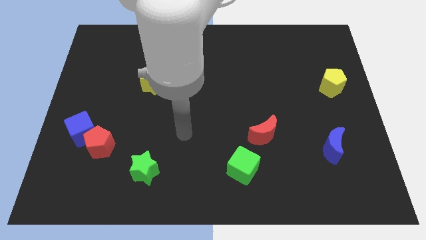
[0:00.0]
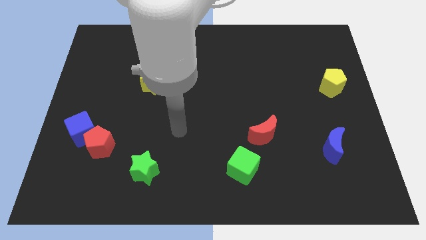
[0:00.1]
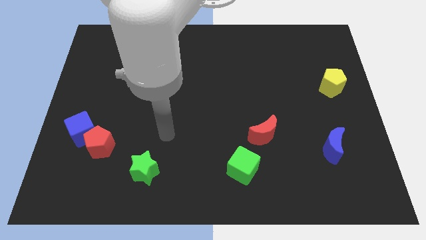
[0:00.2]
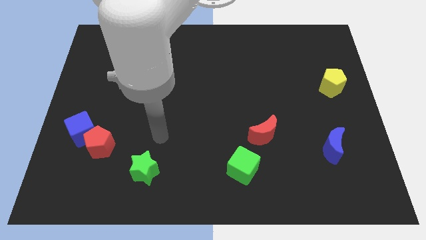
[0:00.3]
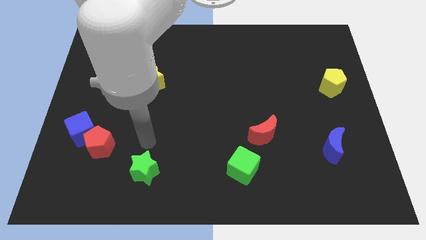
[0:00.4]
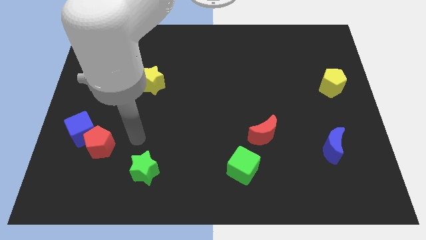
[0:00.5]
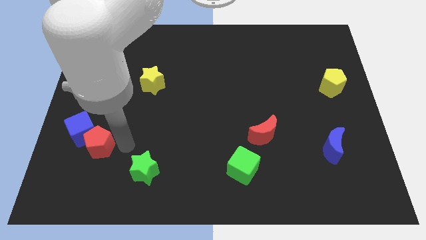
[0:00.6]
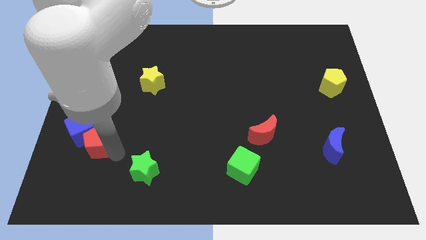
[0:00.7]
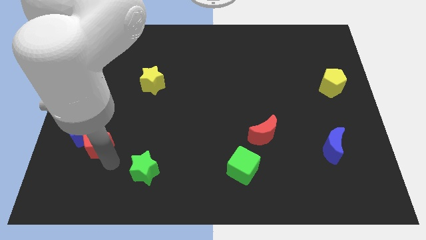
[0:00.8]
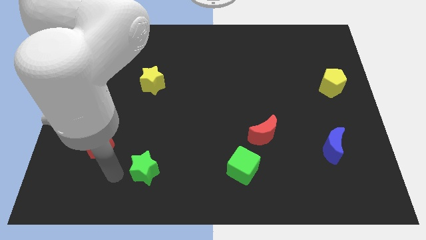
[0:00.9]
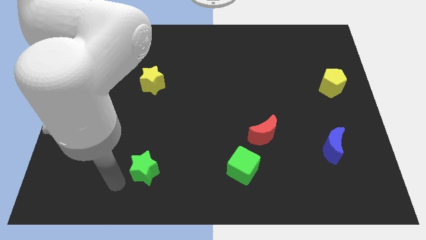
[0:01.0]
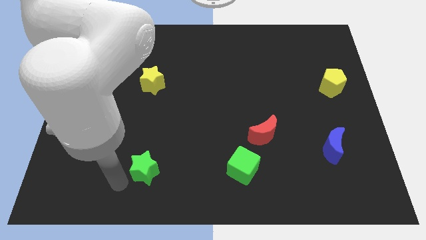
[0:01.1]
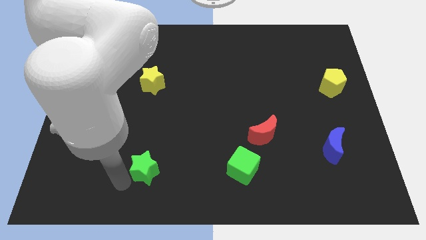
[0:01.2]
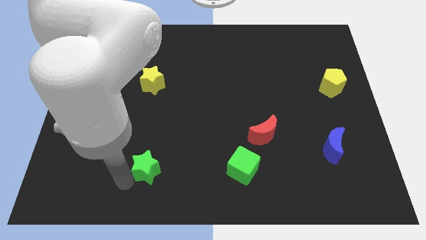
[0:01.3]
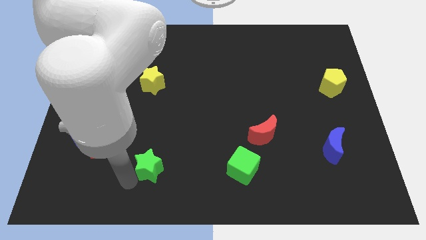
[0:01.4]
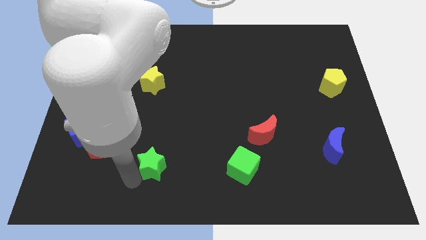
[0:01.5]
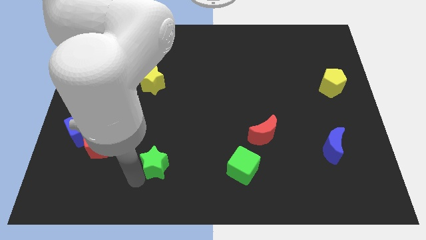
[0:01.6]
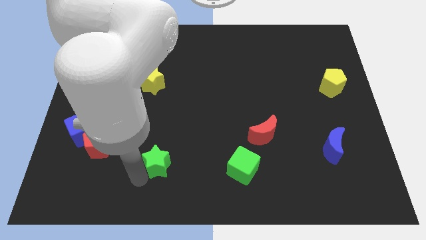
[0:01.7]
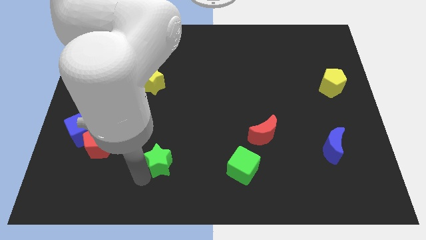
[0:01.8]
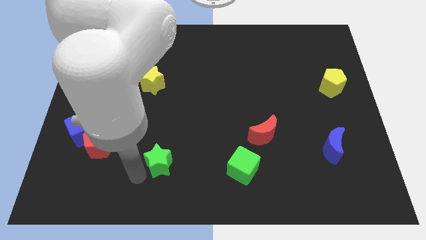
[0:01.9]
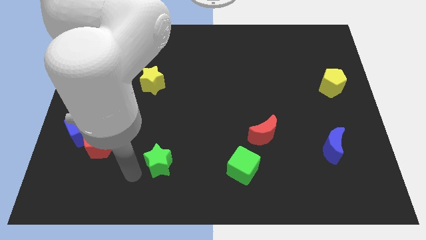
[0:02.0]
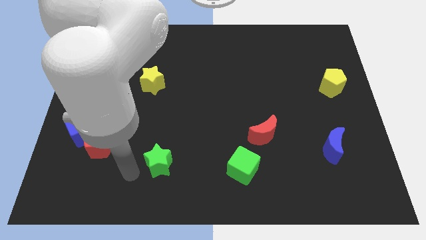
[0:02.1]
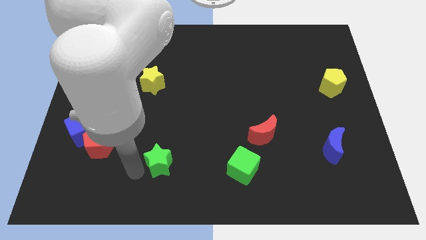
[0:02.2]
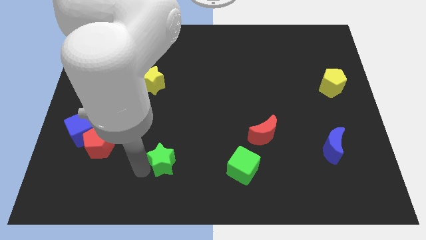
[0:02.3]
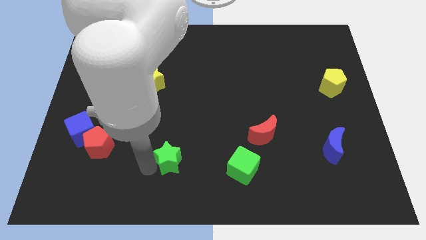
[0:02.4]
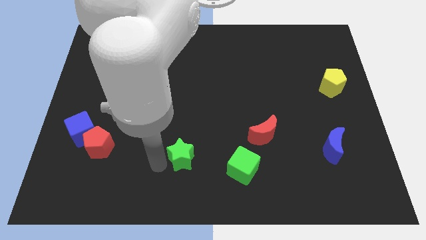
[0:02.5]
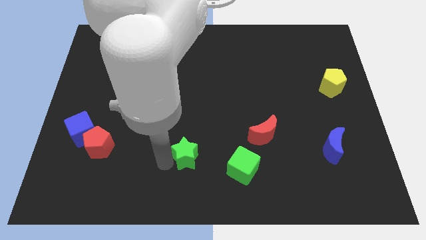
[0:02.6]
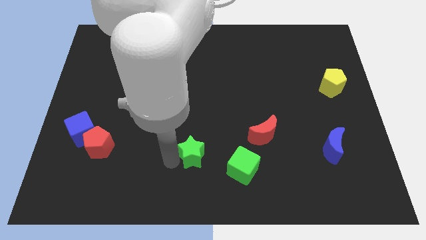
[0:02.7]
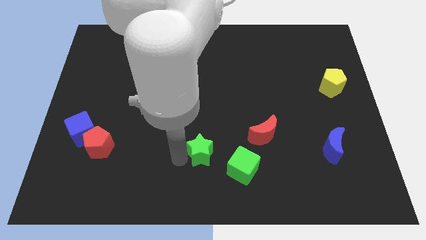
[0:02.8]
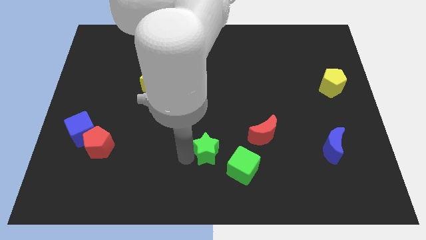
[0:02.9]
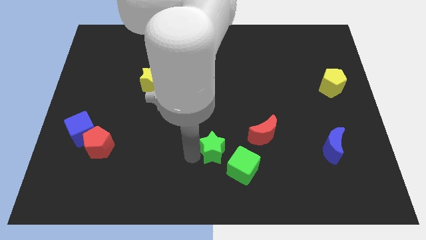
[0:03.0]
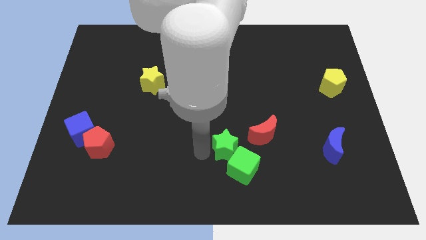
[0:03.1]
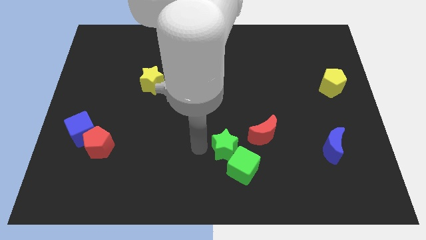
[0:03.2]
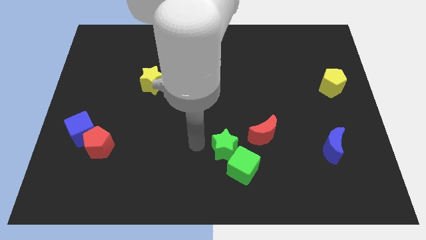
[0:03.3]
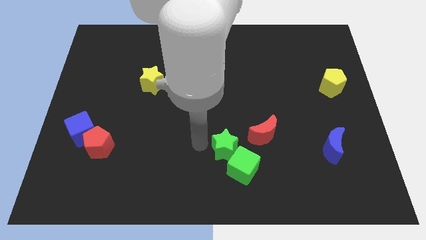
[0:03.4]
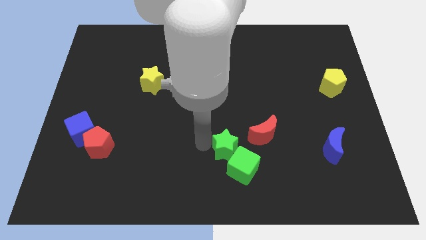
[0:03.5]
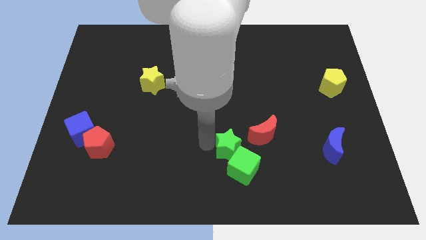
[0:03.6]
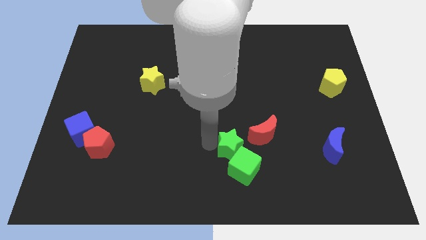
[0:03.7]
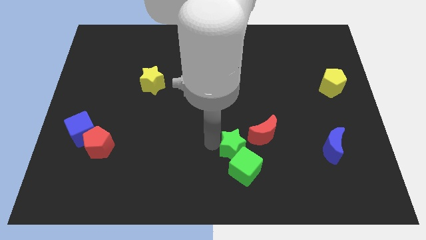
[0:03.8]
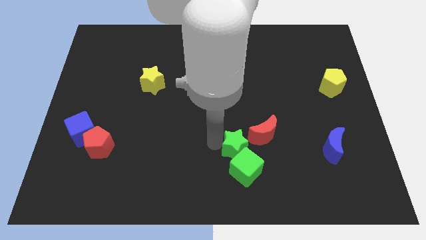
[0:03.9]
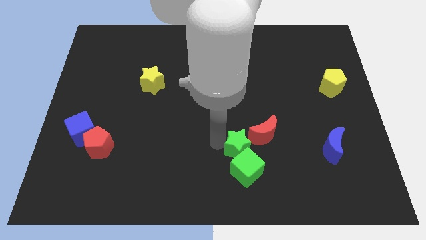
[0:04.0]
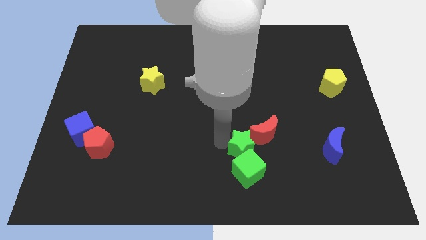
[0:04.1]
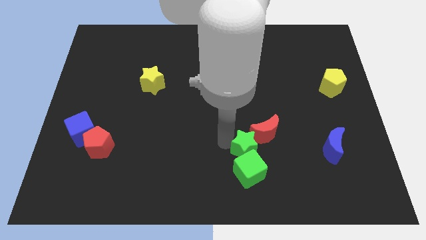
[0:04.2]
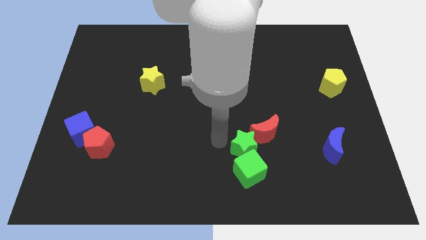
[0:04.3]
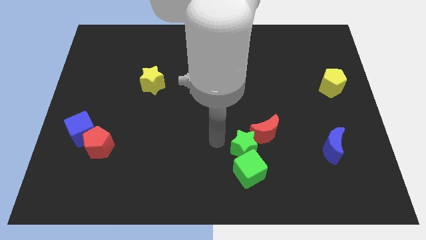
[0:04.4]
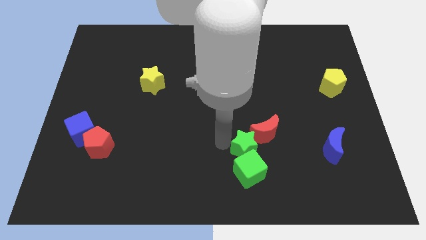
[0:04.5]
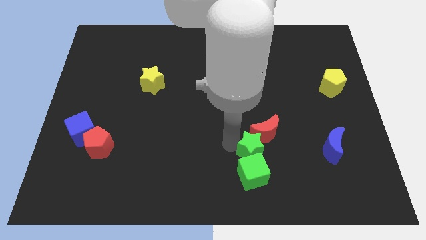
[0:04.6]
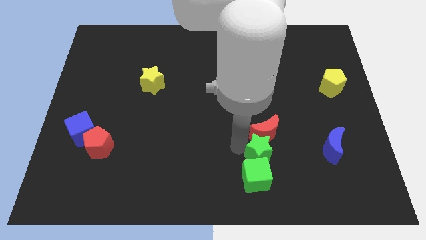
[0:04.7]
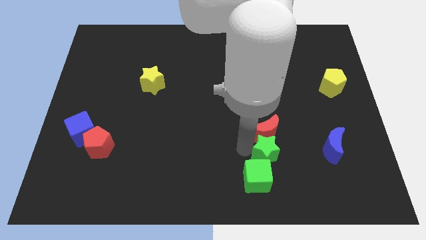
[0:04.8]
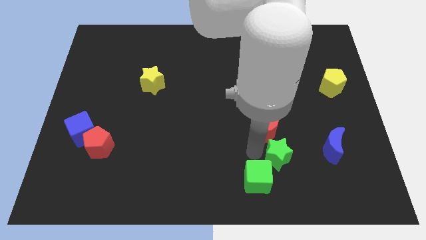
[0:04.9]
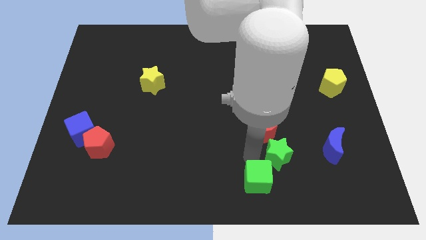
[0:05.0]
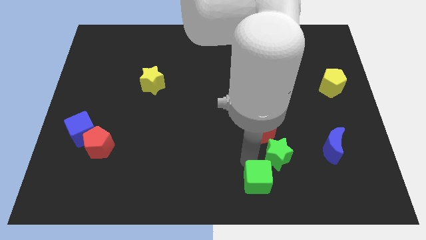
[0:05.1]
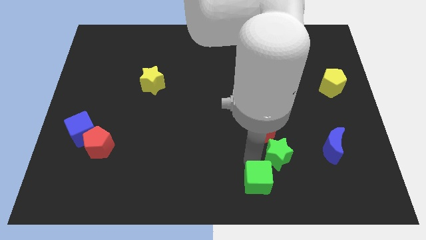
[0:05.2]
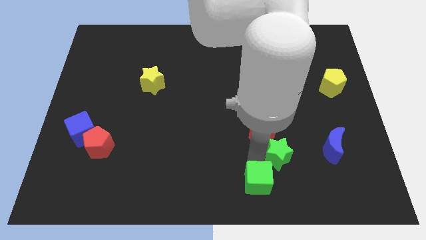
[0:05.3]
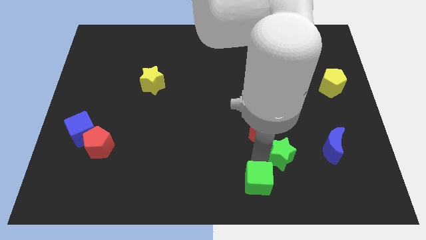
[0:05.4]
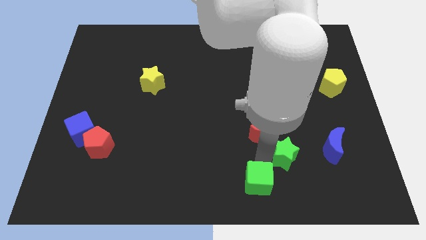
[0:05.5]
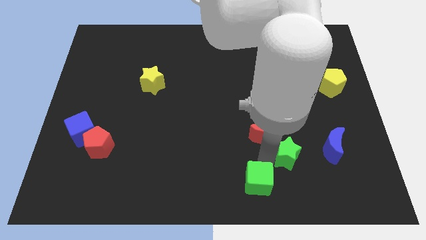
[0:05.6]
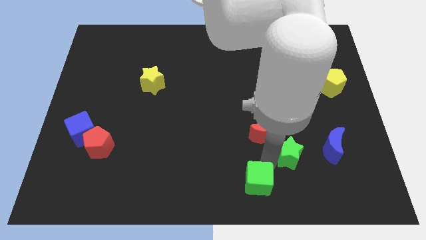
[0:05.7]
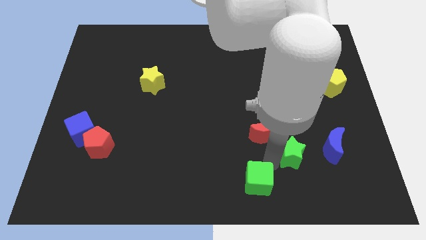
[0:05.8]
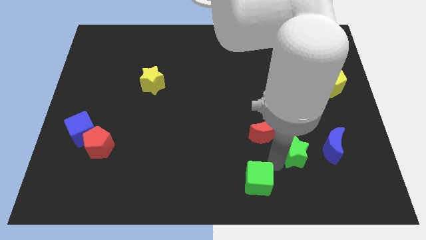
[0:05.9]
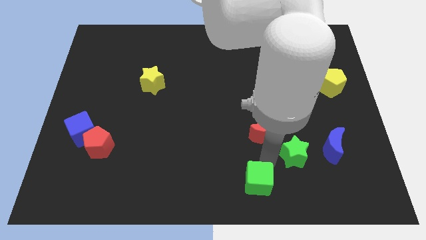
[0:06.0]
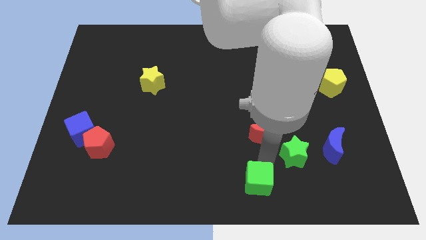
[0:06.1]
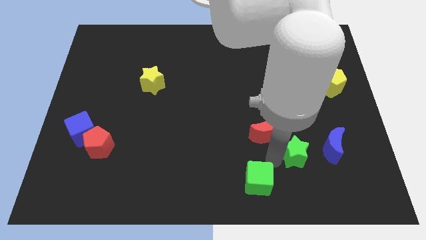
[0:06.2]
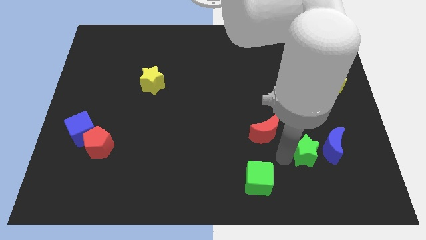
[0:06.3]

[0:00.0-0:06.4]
push the green star towards the blue moon
